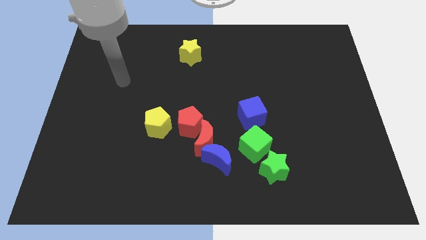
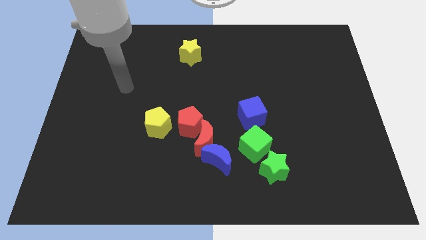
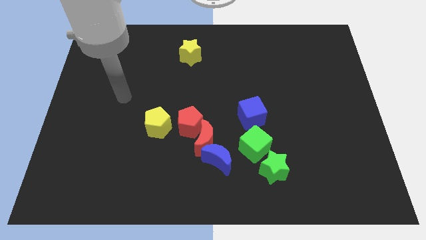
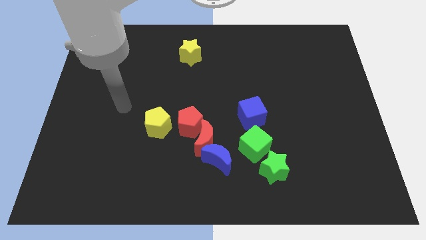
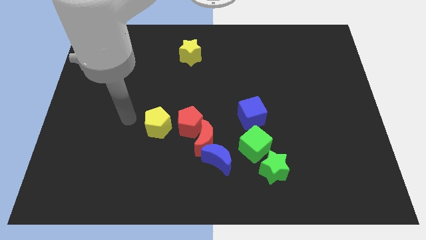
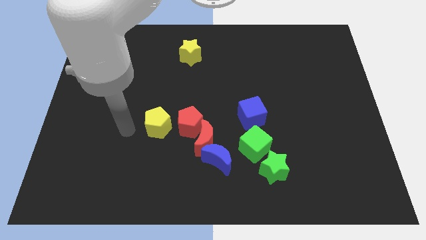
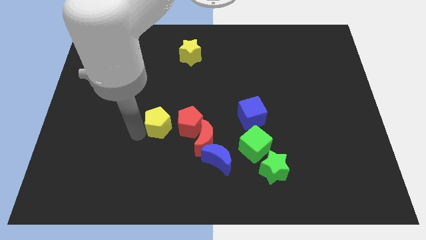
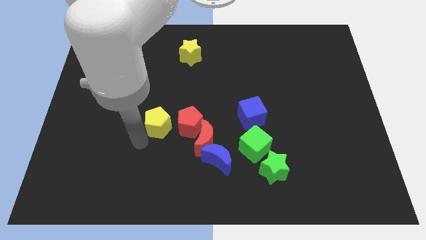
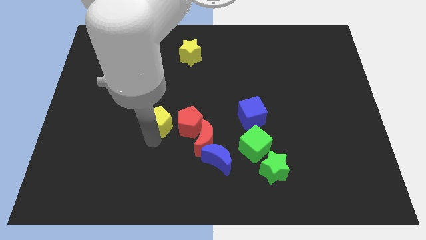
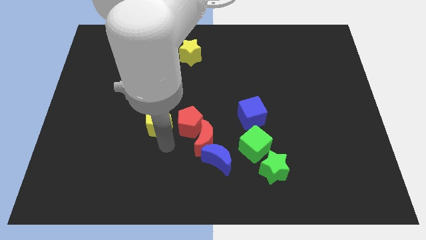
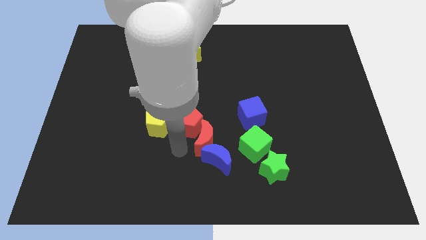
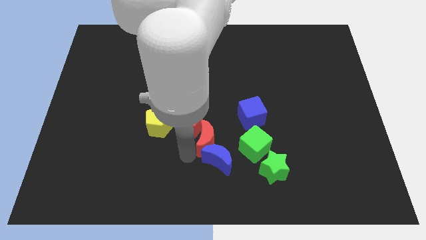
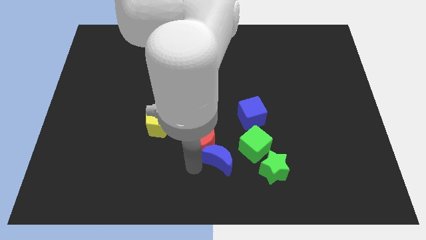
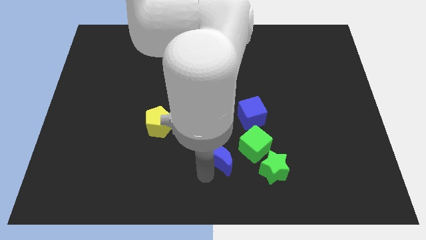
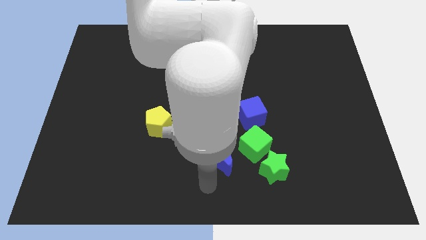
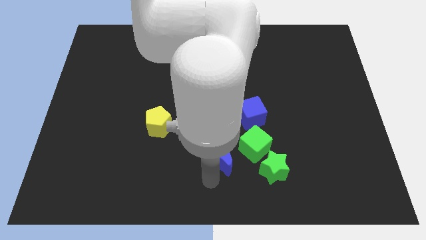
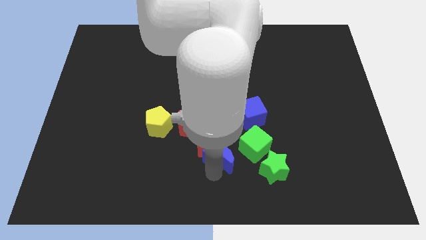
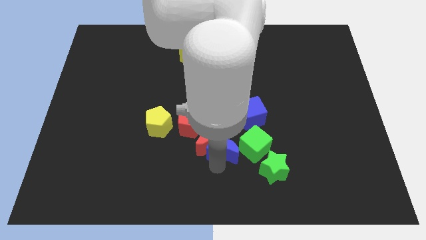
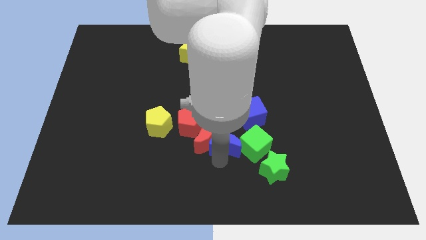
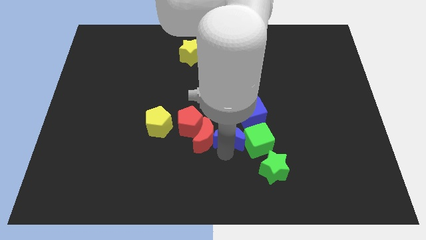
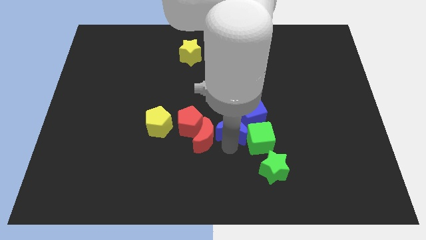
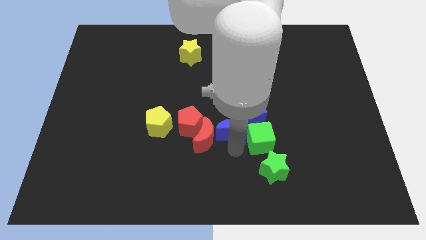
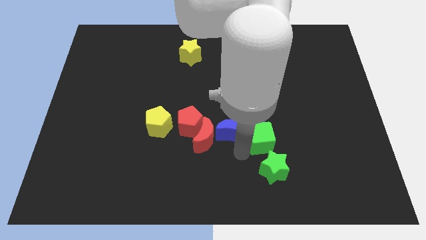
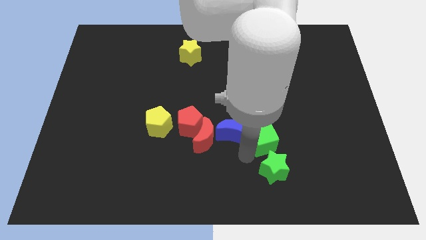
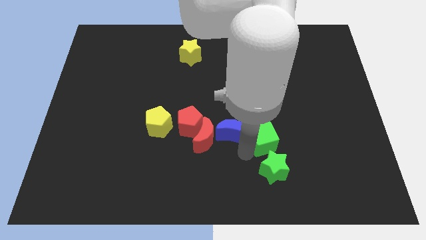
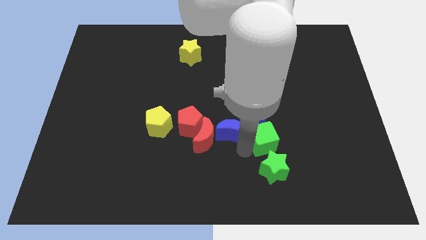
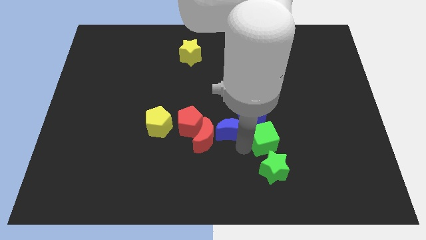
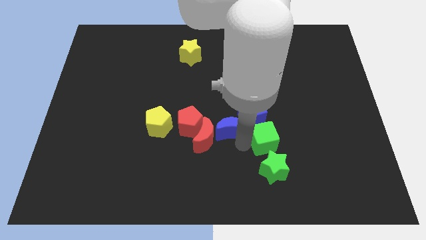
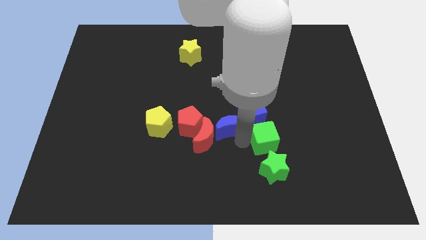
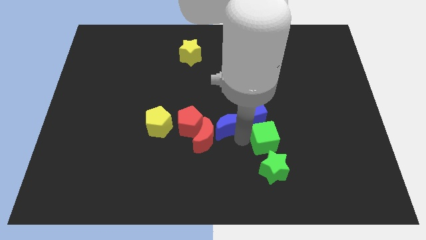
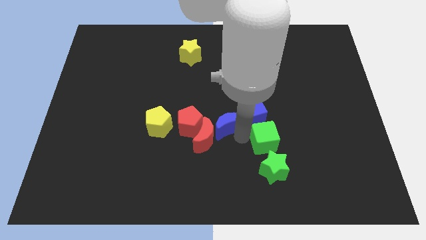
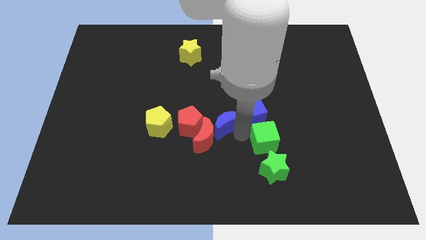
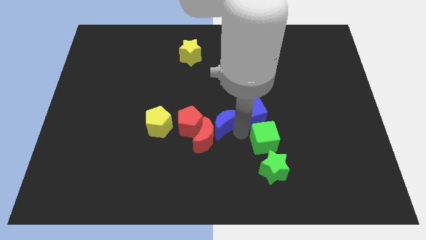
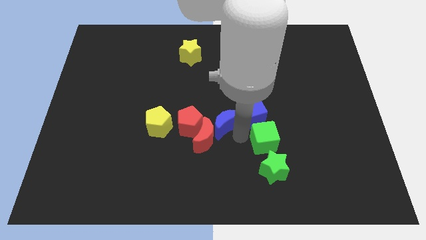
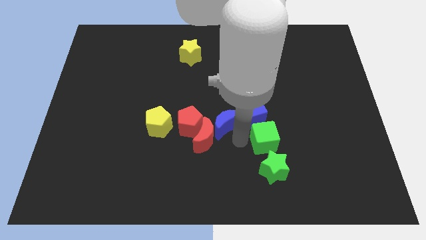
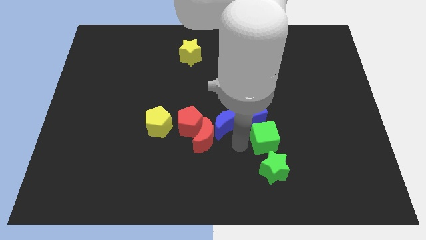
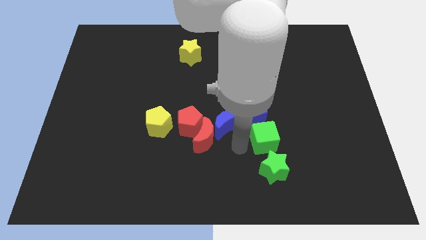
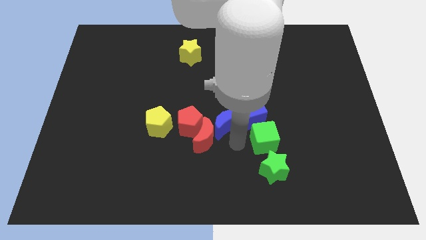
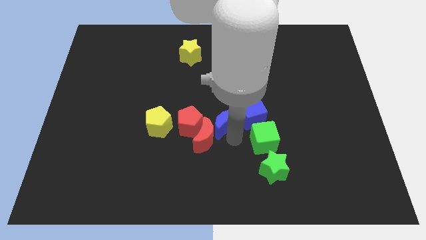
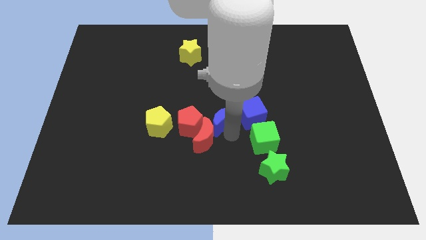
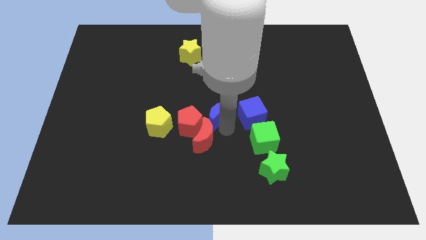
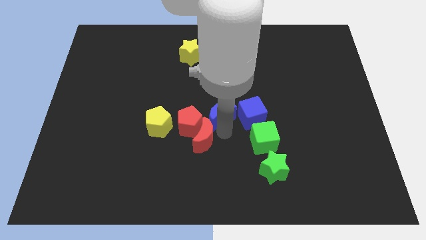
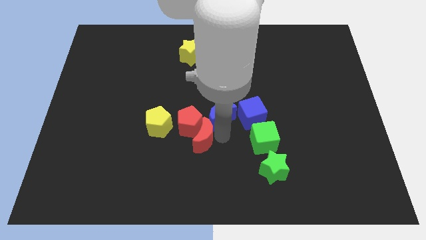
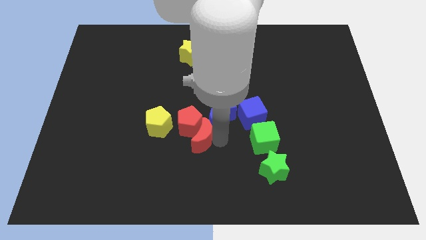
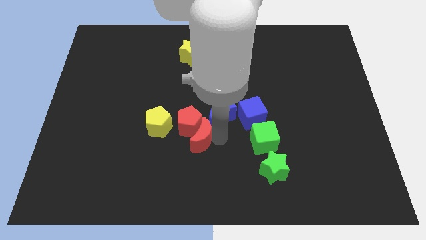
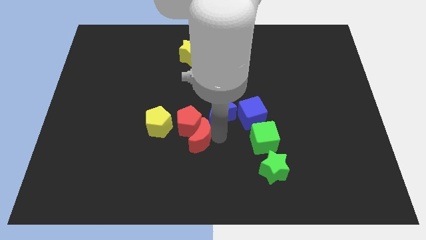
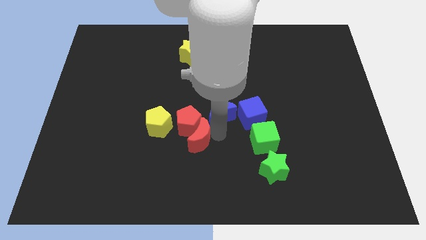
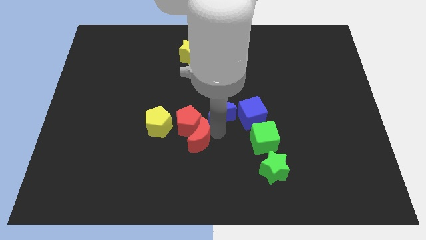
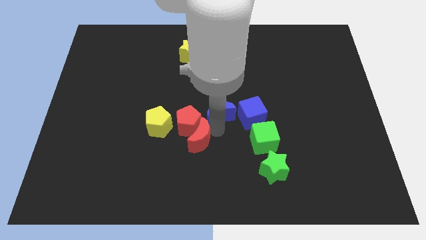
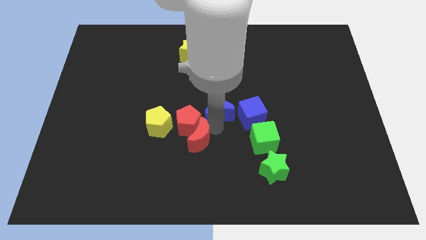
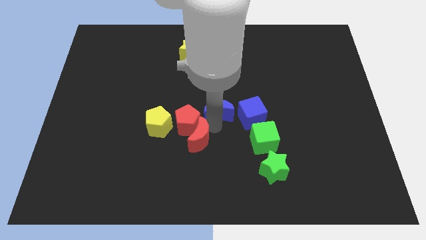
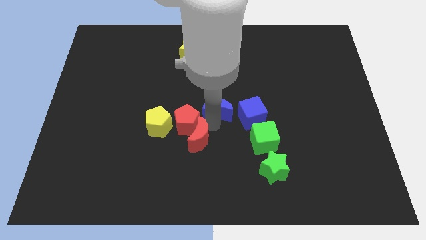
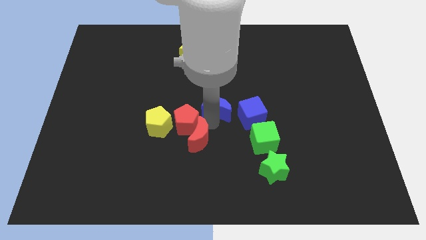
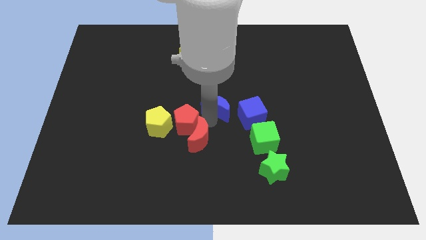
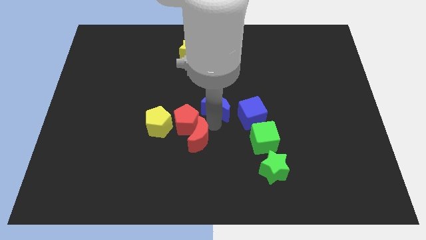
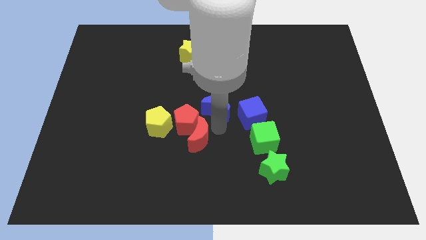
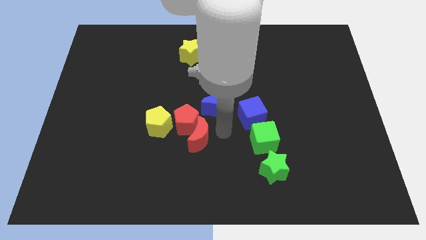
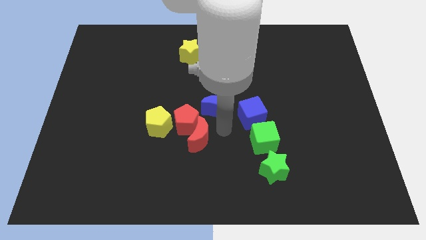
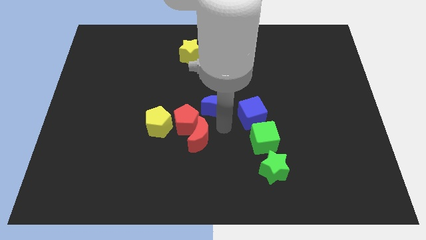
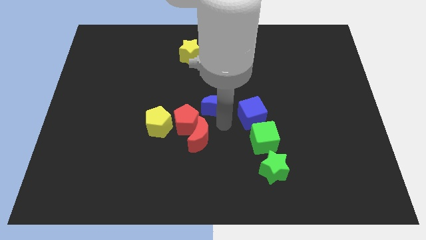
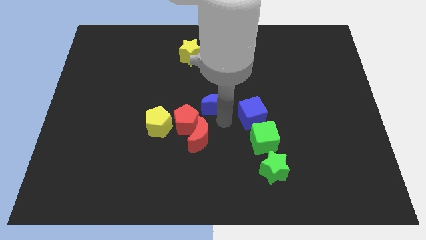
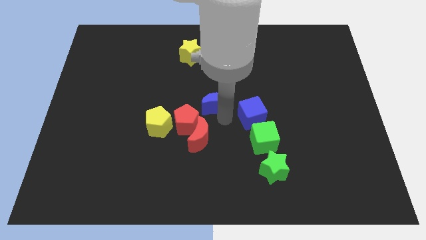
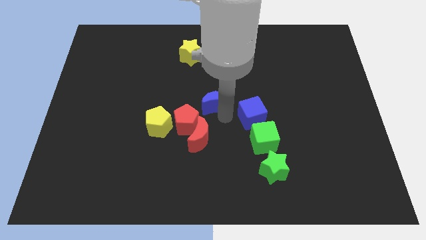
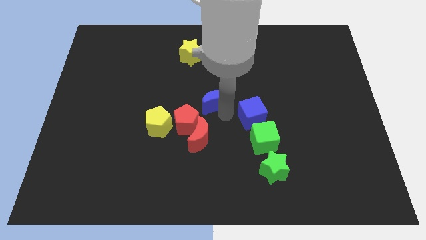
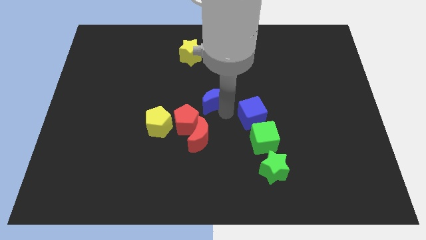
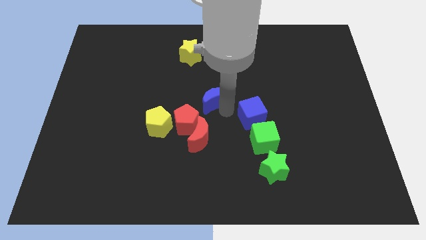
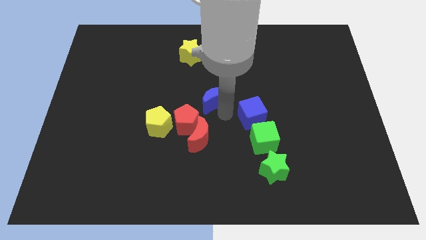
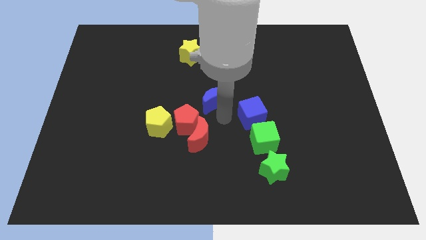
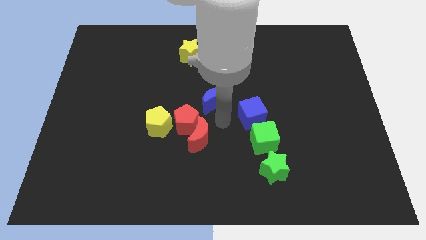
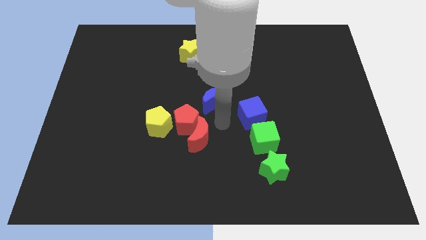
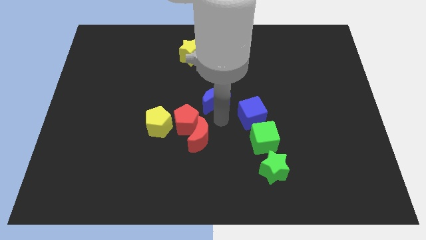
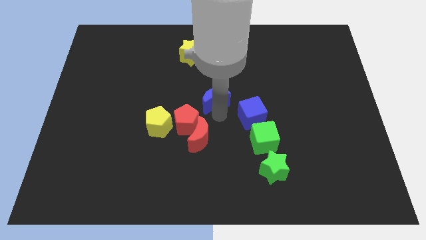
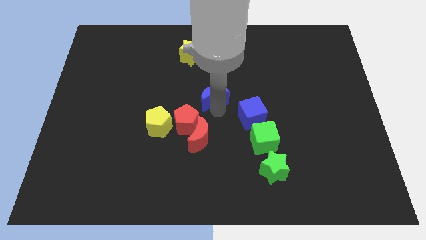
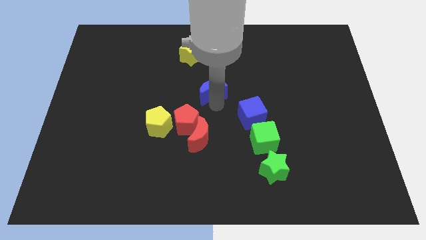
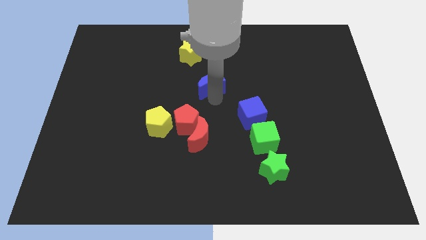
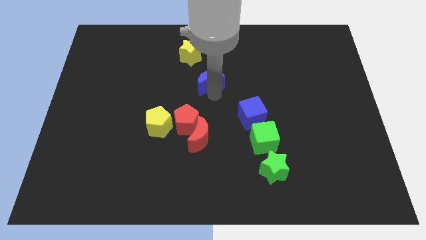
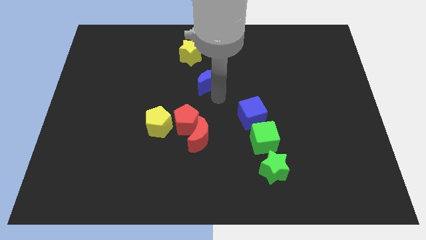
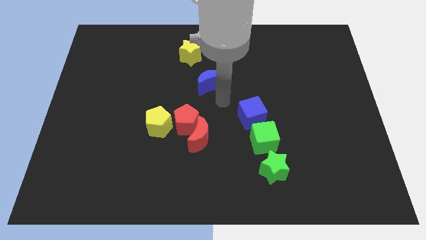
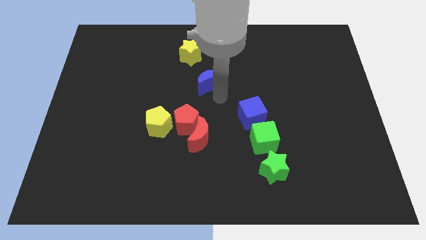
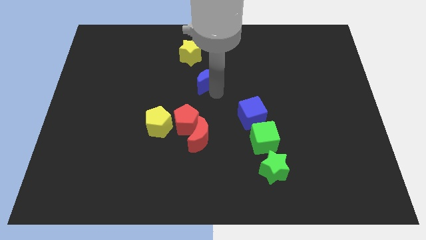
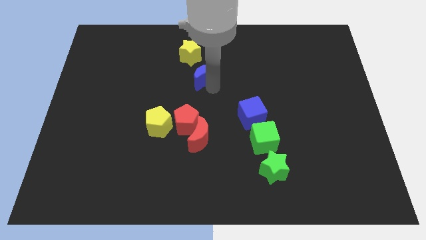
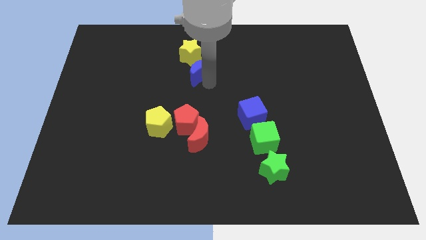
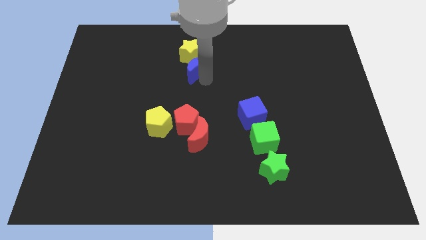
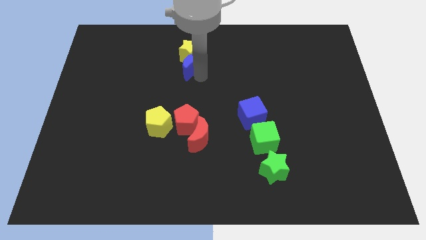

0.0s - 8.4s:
move the blue moon to the yellow star
